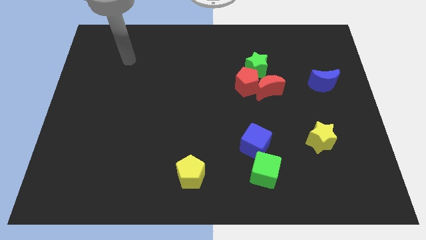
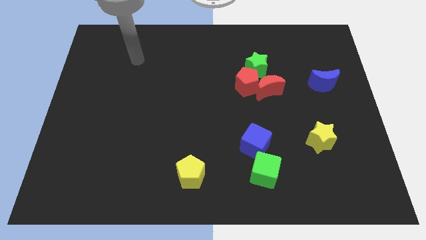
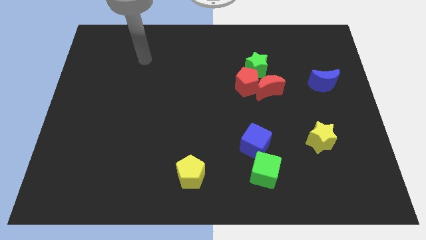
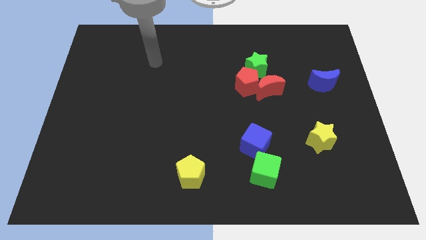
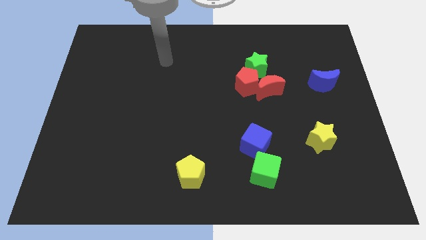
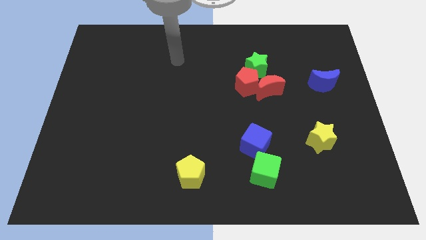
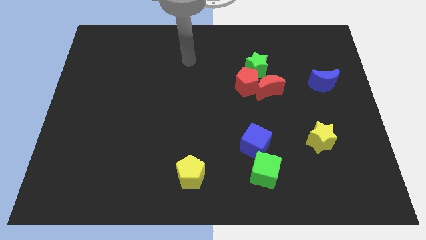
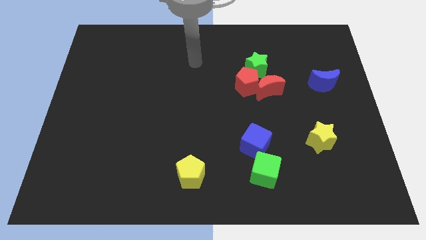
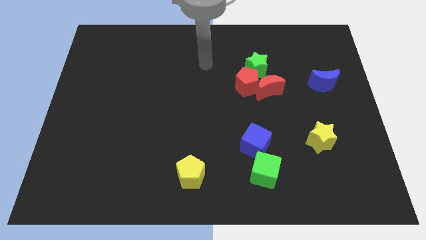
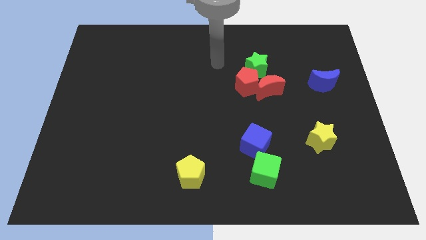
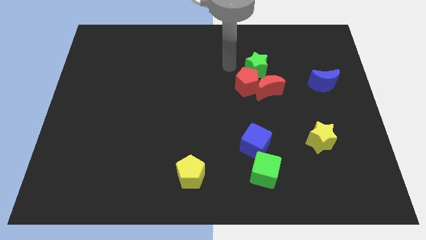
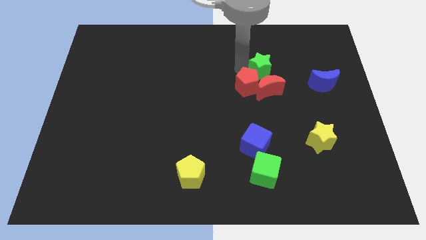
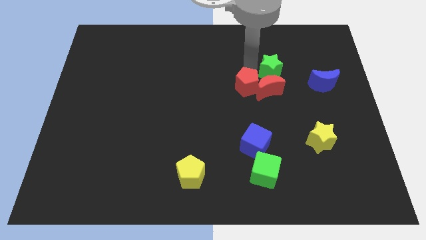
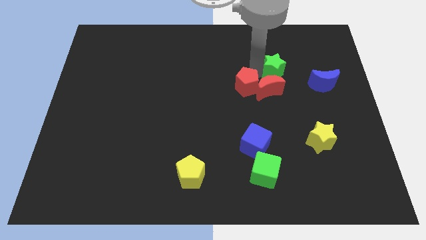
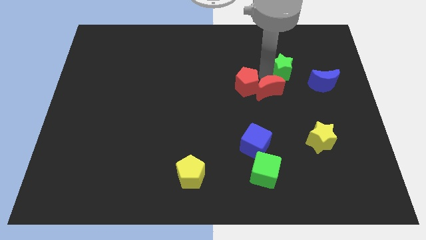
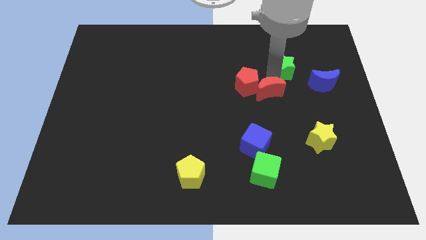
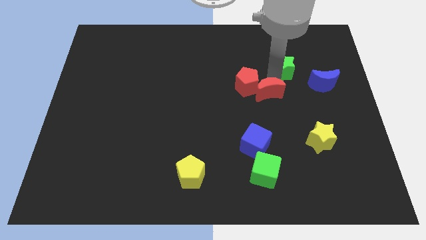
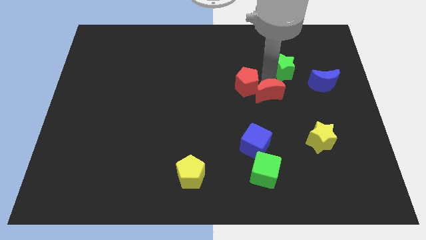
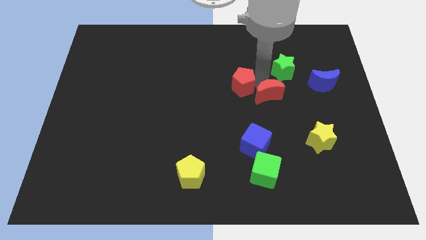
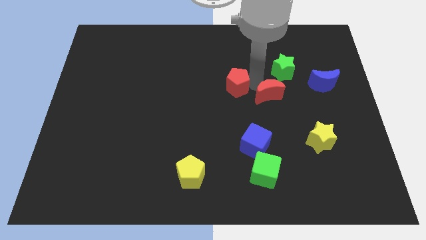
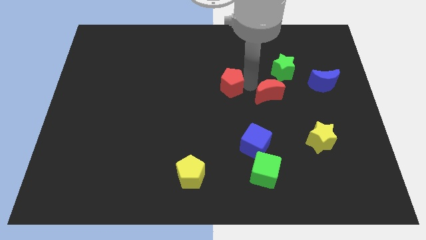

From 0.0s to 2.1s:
pull the red pentagon apart from the red moon and green star

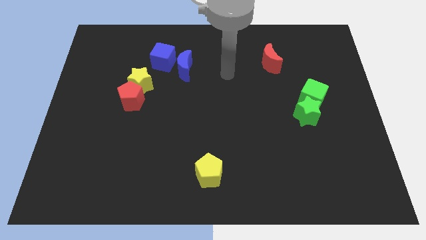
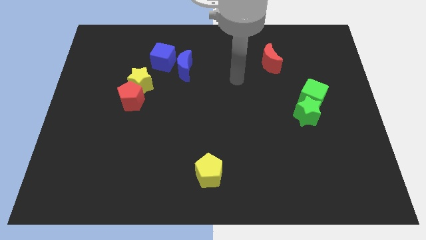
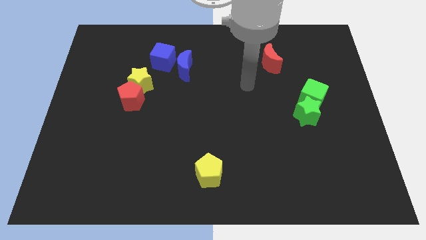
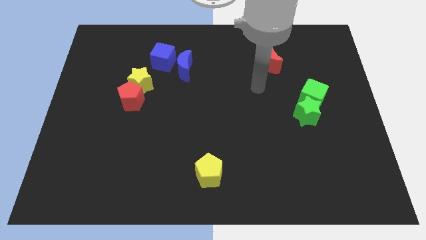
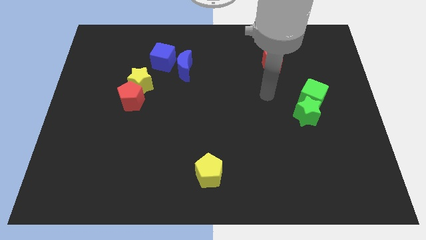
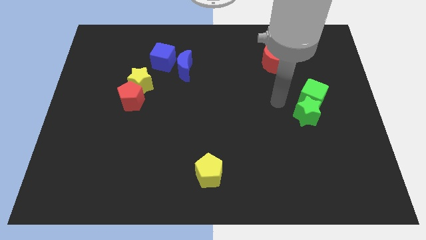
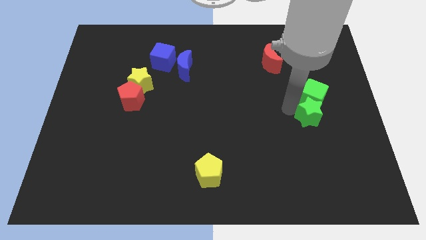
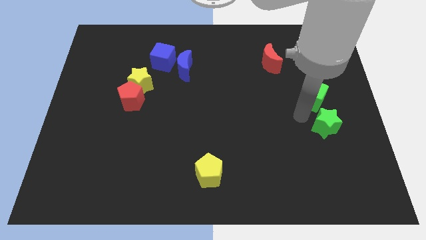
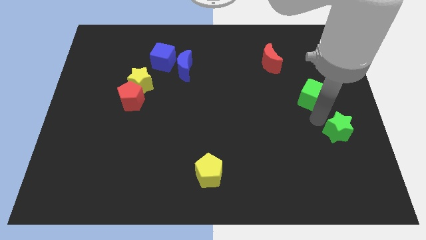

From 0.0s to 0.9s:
pull the green cube apart from the green star

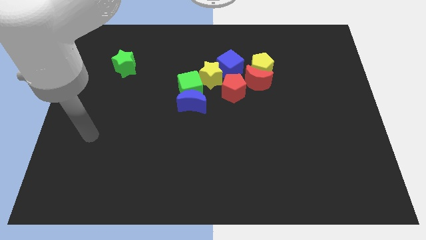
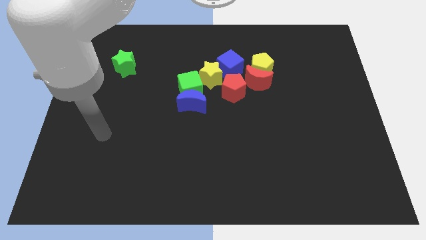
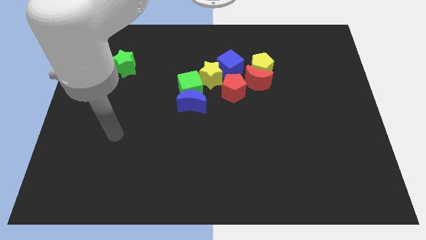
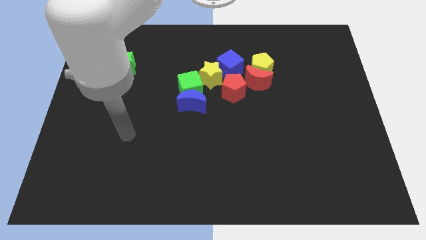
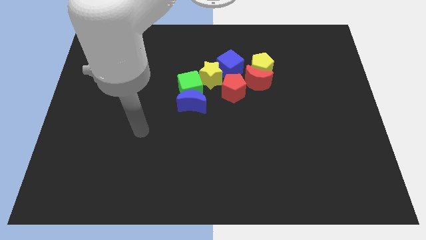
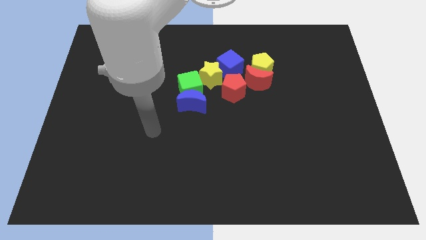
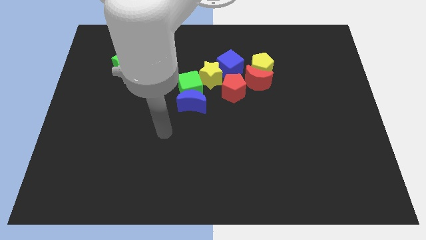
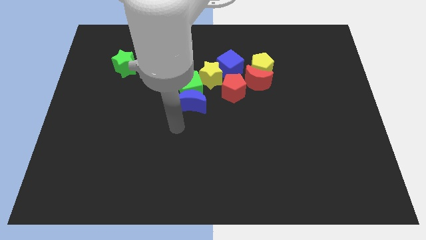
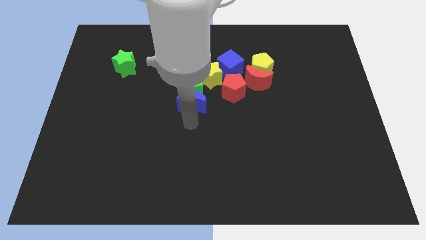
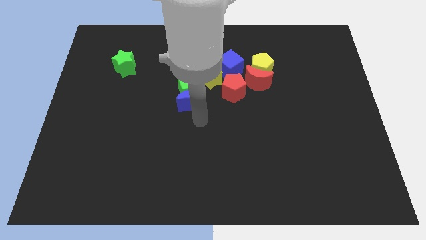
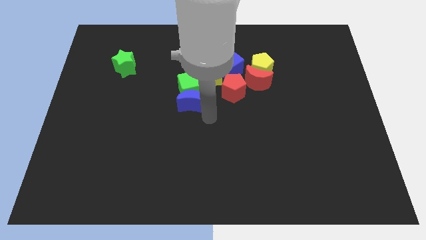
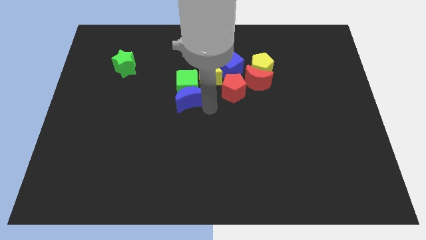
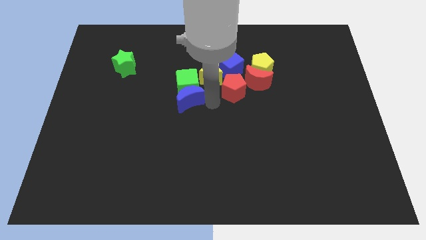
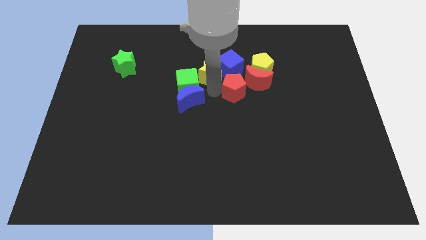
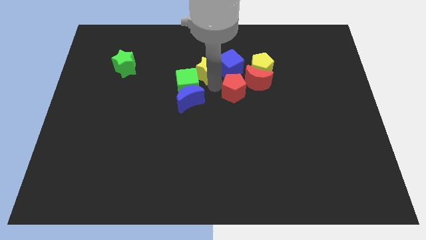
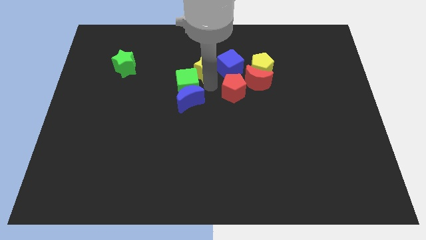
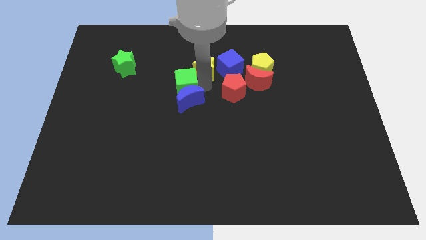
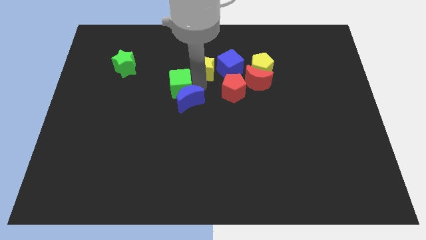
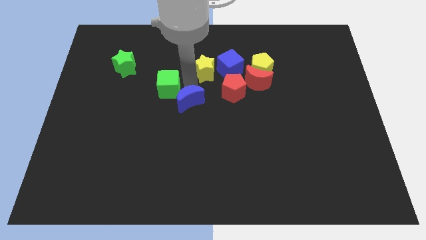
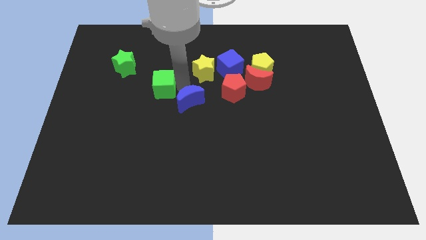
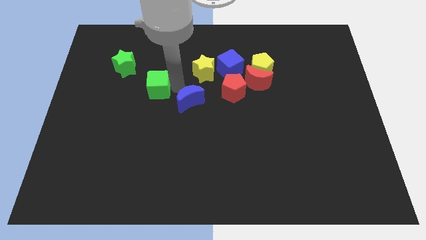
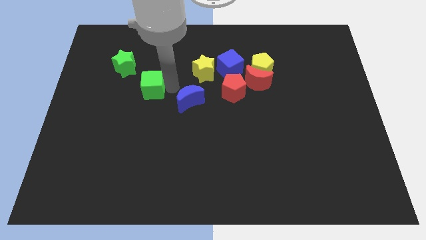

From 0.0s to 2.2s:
separate the green cube from the blue moon and yellow star

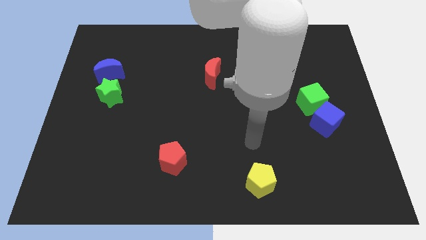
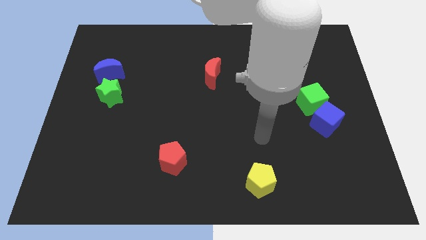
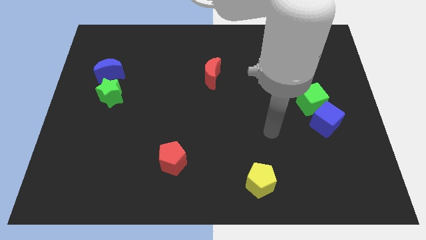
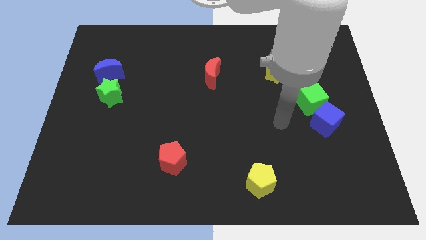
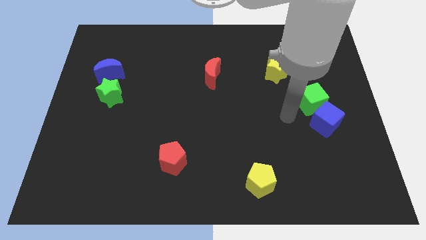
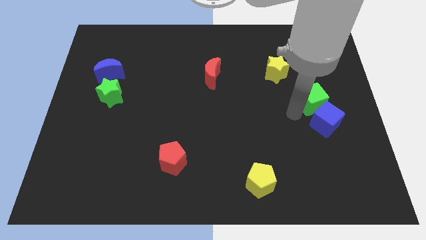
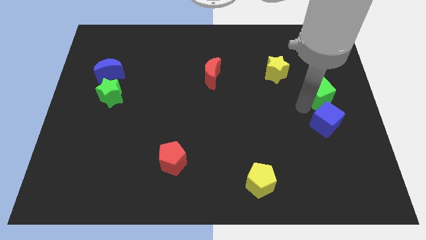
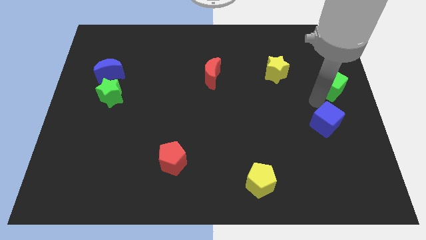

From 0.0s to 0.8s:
pull the blue cube apart from the green cube

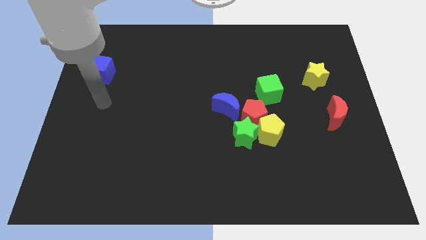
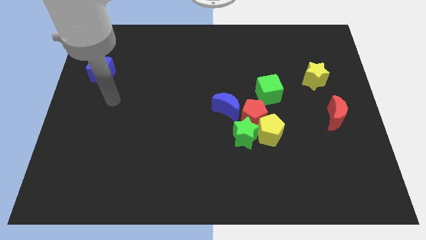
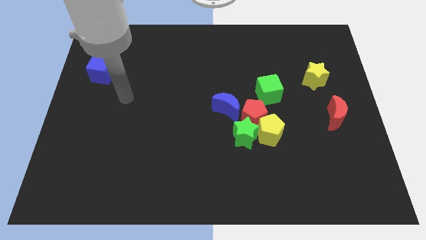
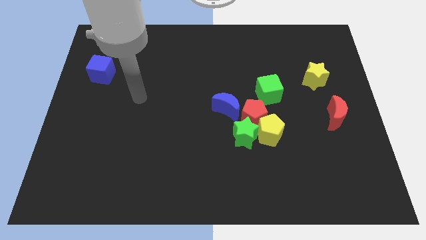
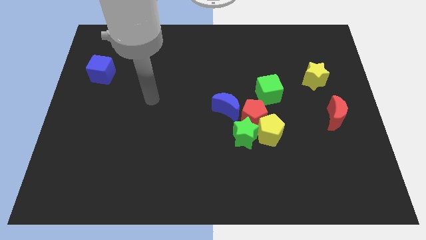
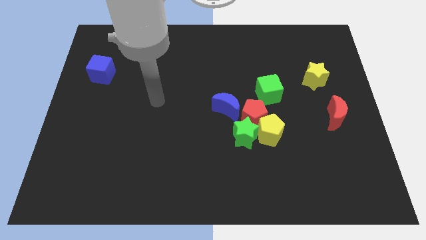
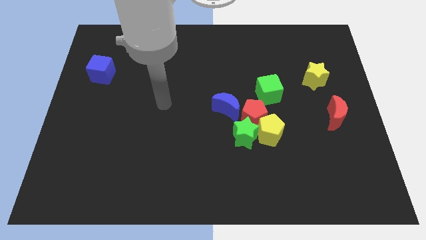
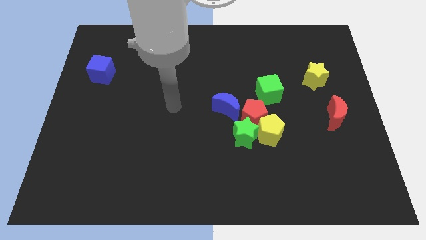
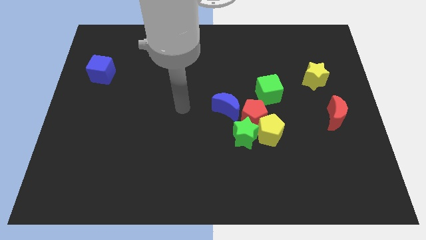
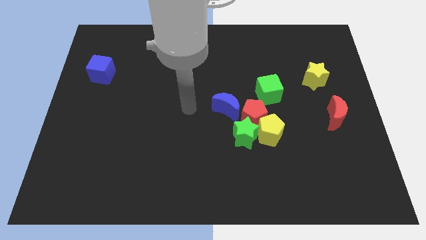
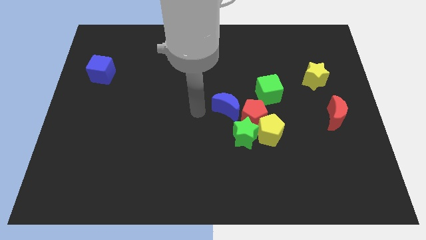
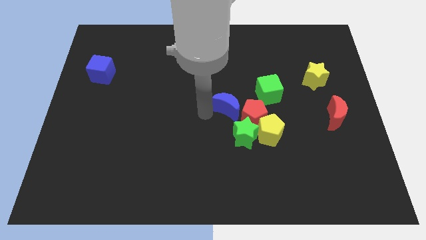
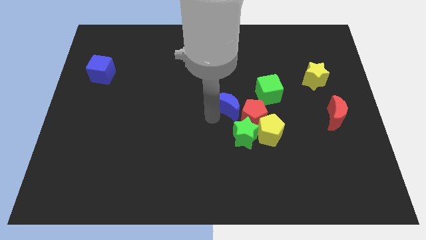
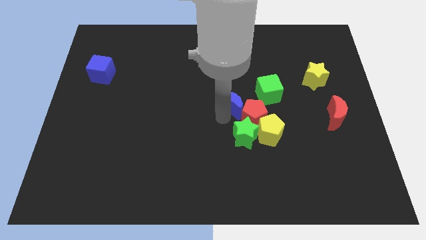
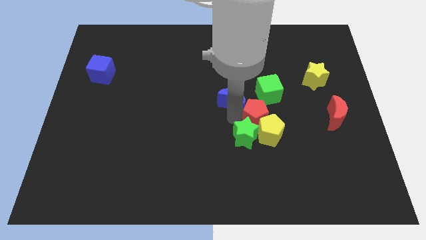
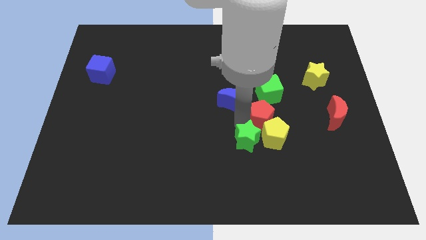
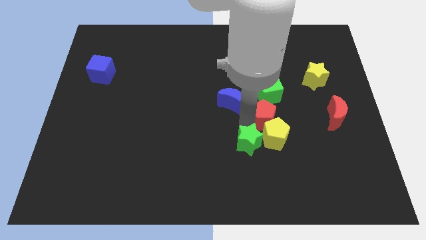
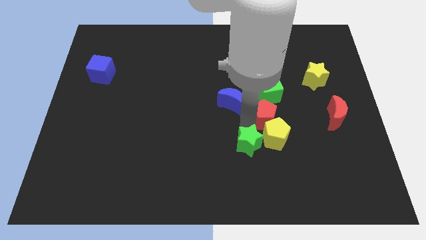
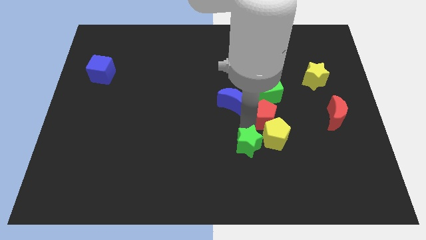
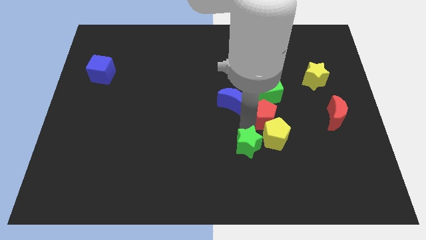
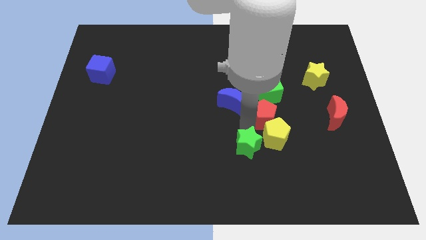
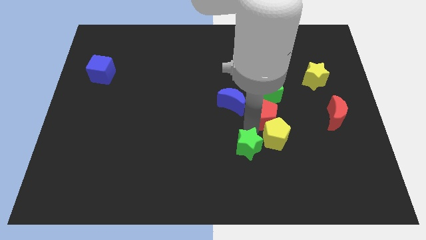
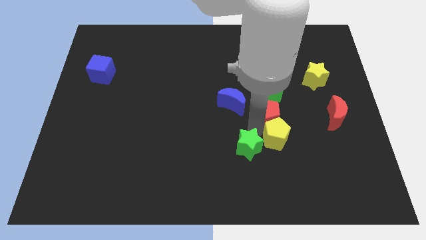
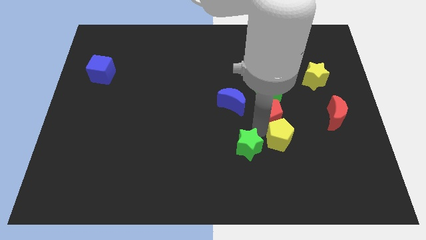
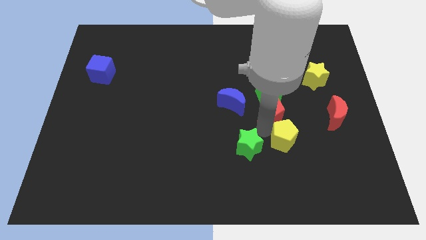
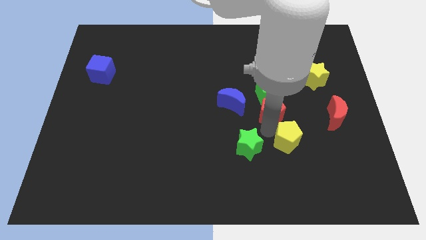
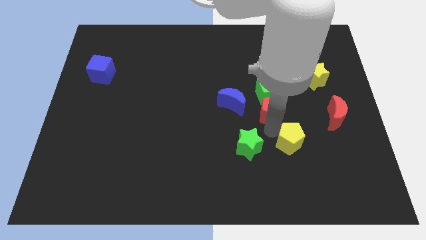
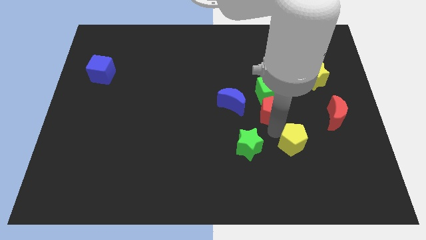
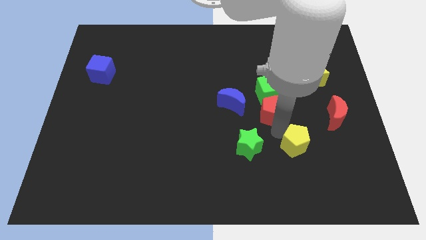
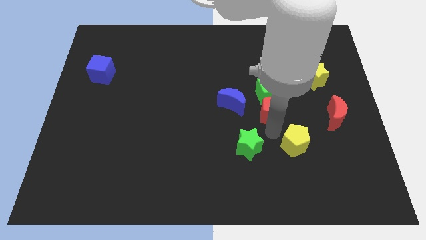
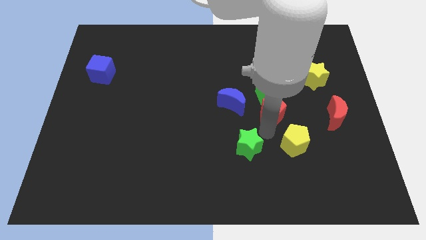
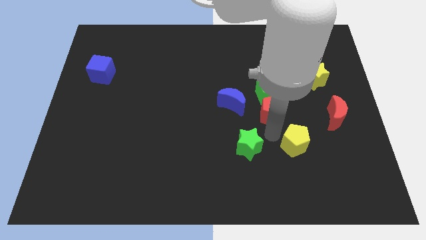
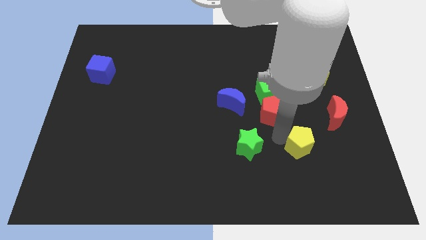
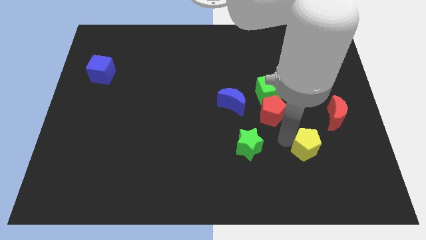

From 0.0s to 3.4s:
pull the yellow pentagon apart from the green star and red pentagon

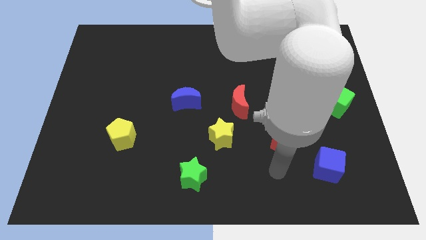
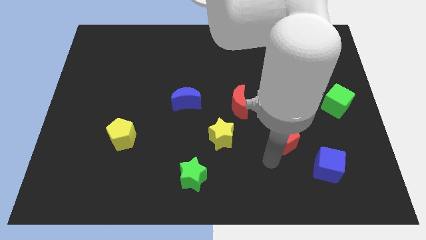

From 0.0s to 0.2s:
pull the red moon apart from the yellow star
